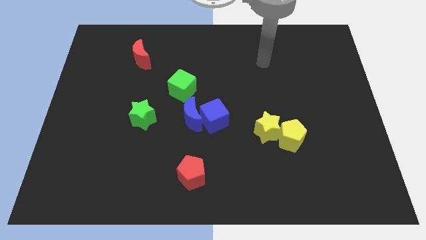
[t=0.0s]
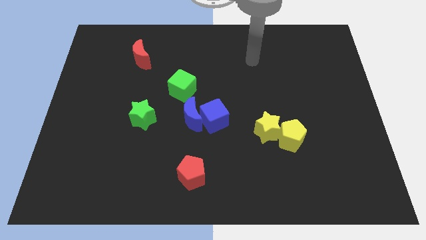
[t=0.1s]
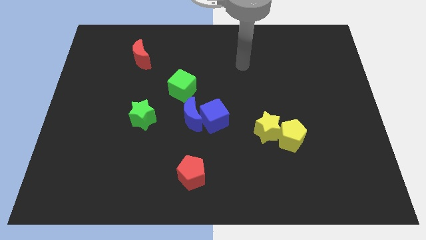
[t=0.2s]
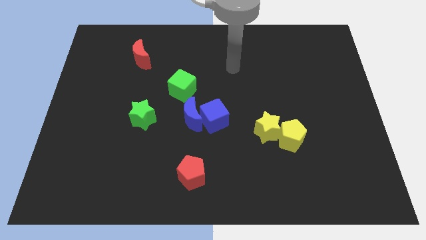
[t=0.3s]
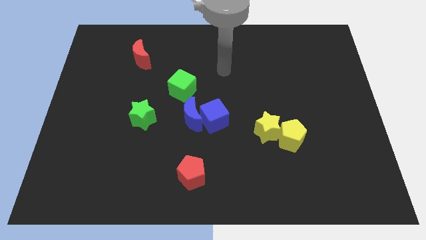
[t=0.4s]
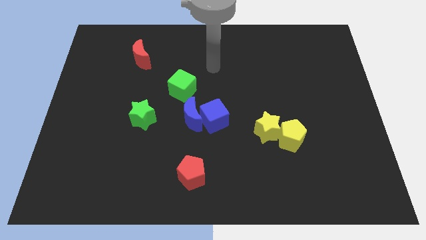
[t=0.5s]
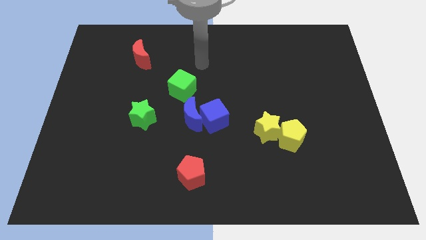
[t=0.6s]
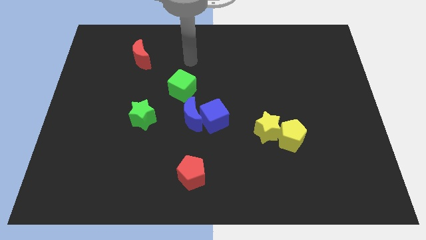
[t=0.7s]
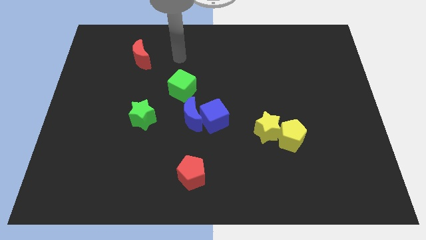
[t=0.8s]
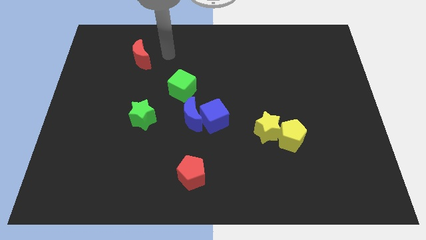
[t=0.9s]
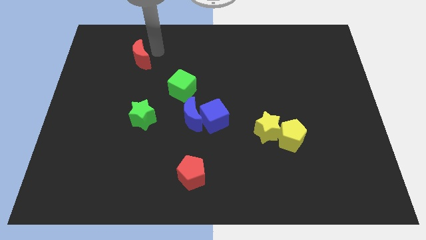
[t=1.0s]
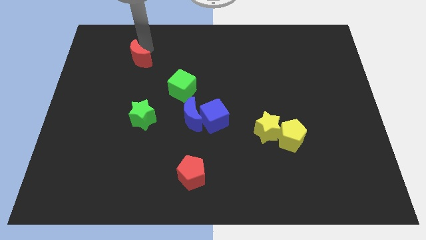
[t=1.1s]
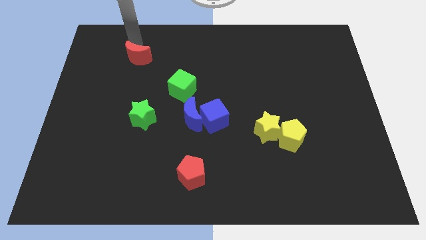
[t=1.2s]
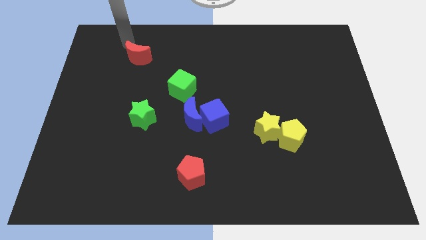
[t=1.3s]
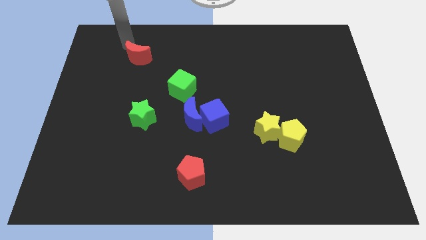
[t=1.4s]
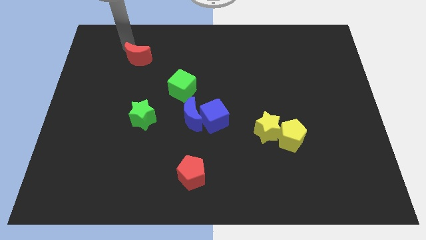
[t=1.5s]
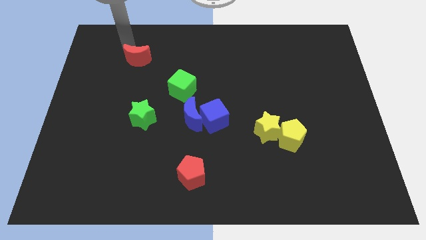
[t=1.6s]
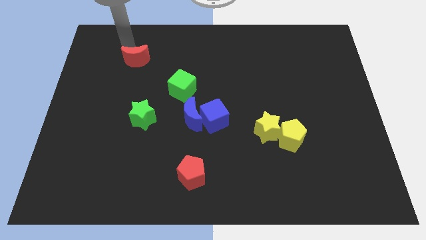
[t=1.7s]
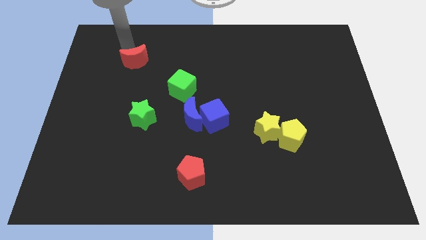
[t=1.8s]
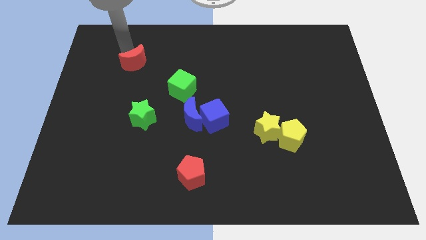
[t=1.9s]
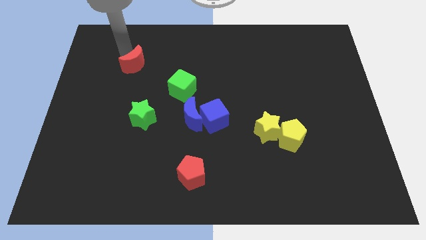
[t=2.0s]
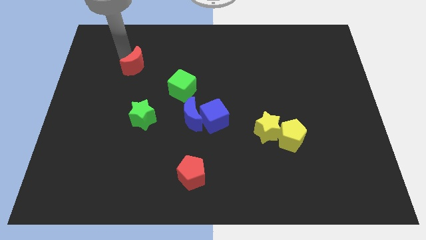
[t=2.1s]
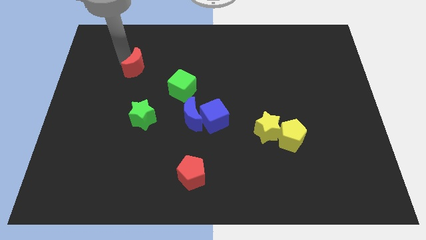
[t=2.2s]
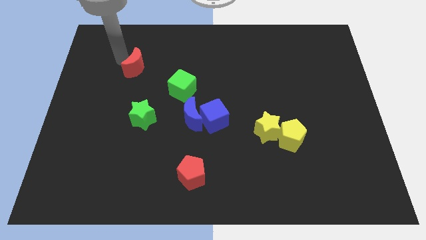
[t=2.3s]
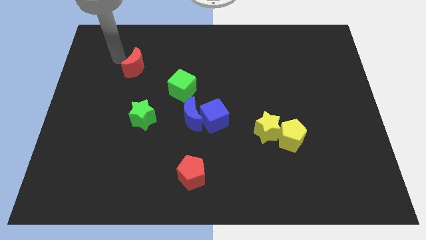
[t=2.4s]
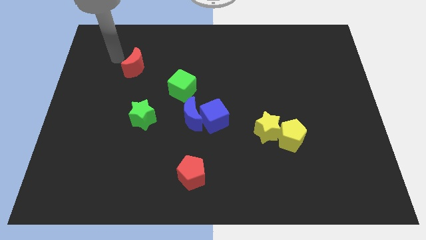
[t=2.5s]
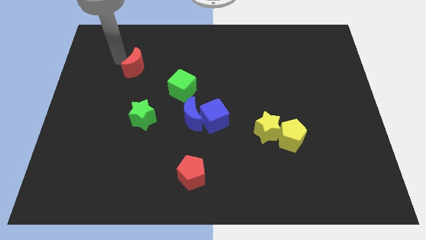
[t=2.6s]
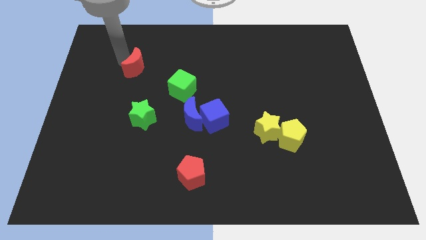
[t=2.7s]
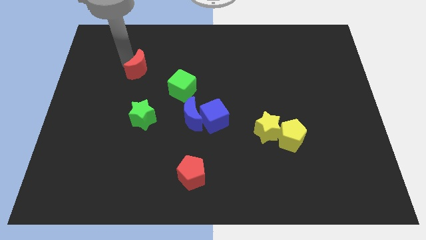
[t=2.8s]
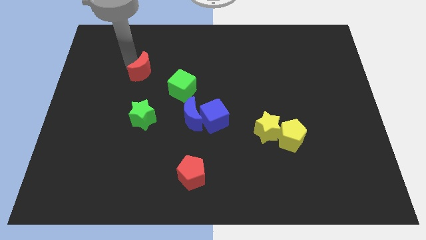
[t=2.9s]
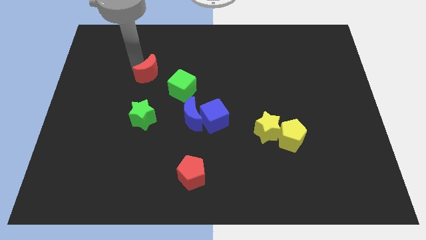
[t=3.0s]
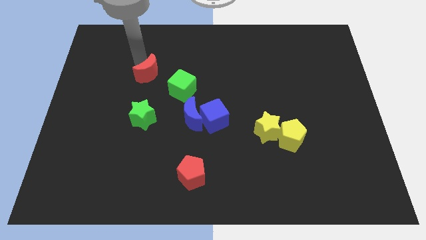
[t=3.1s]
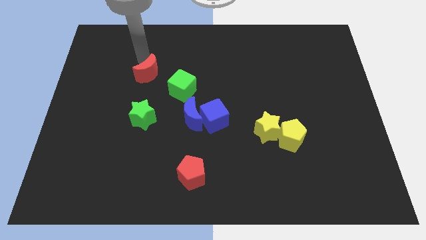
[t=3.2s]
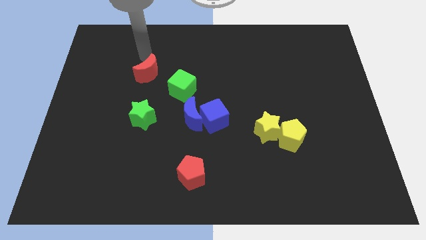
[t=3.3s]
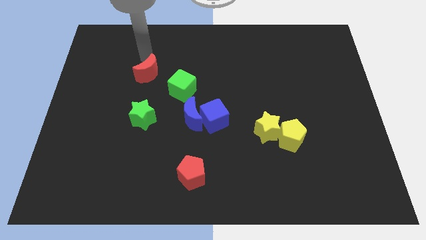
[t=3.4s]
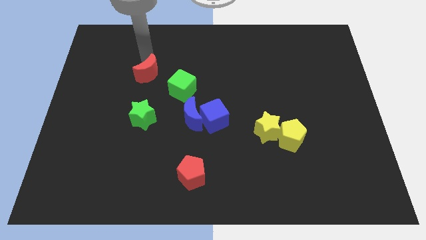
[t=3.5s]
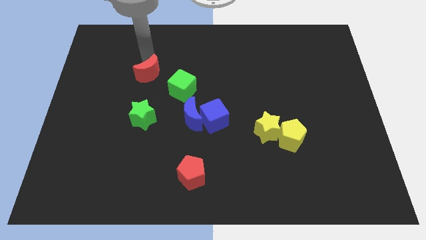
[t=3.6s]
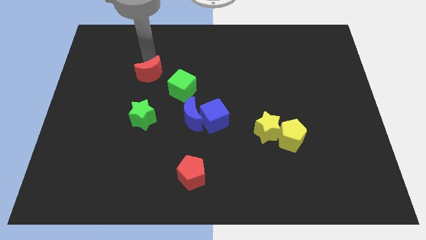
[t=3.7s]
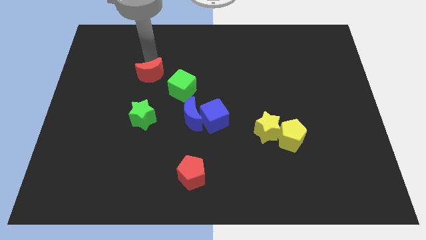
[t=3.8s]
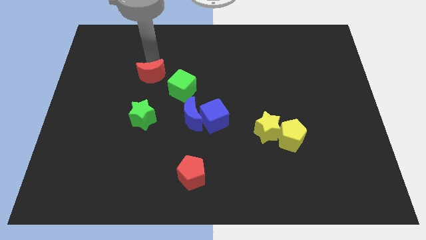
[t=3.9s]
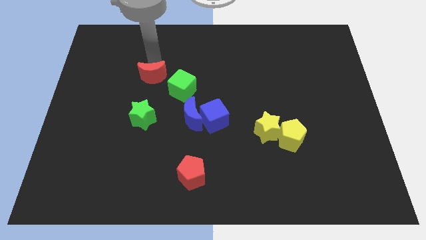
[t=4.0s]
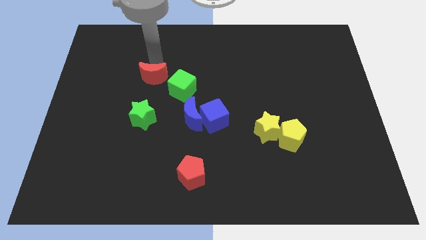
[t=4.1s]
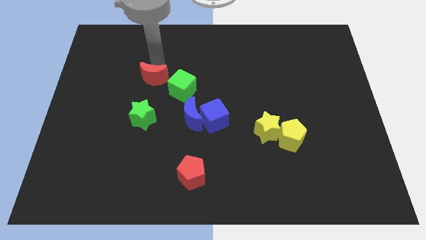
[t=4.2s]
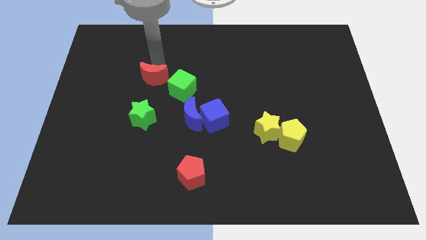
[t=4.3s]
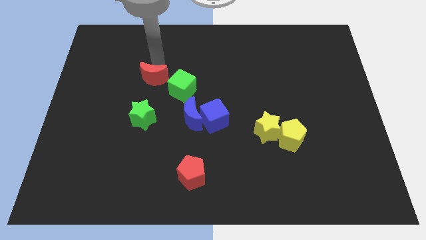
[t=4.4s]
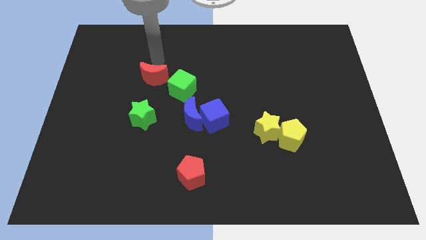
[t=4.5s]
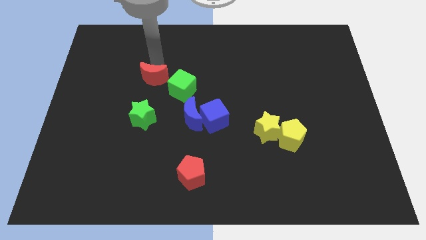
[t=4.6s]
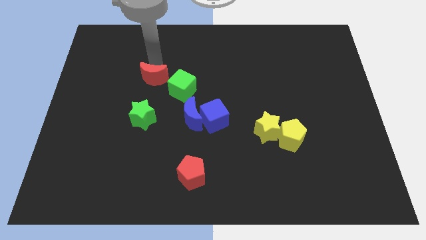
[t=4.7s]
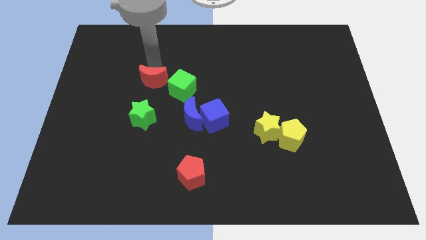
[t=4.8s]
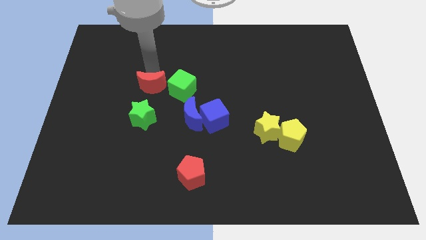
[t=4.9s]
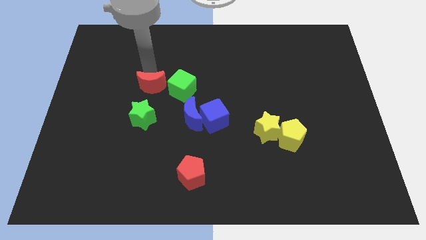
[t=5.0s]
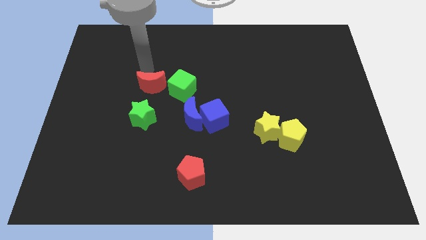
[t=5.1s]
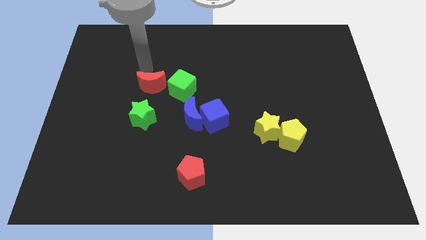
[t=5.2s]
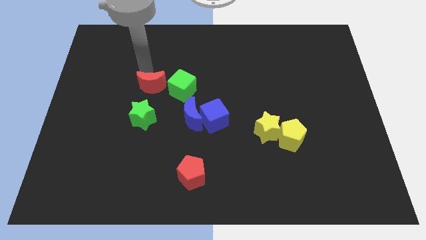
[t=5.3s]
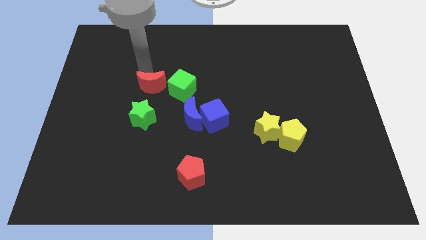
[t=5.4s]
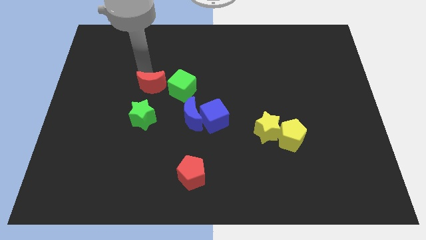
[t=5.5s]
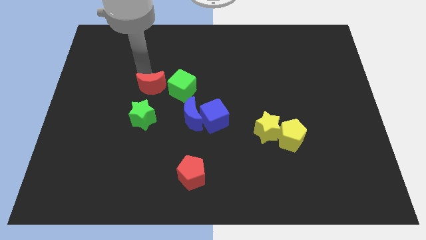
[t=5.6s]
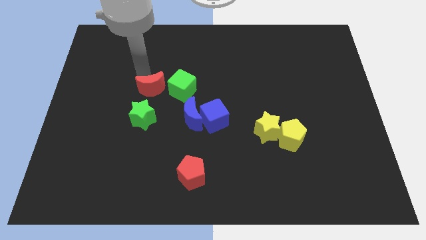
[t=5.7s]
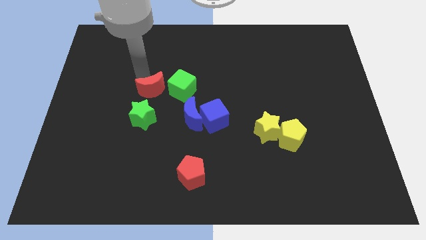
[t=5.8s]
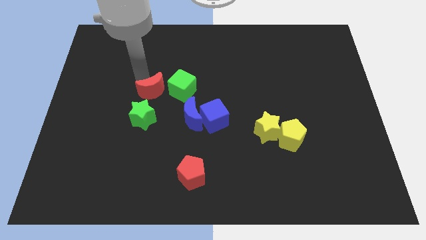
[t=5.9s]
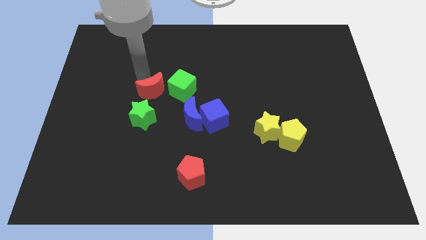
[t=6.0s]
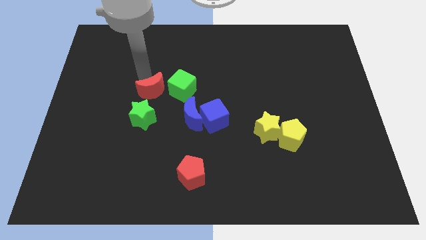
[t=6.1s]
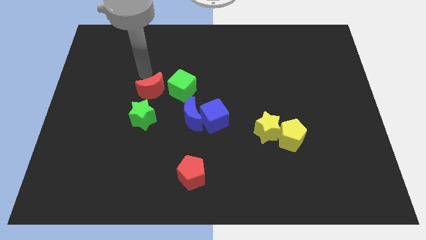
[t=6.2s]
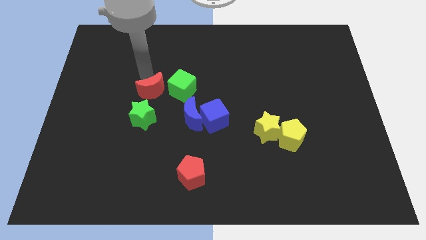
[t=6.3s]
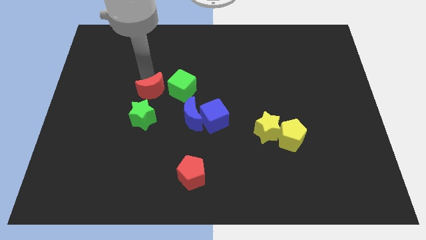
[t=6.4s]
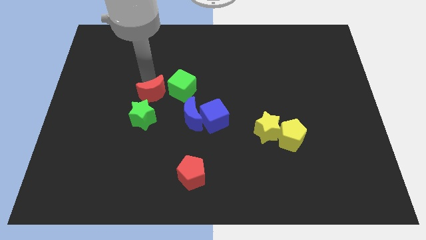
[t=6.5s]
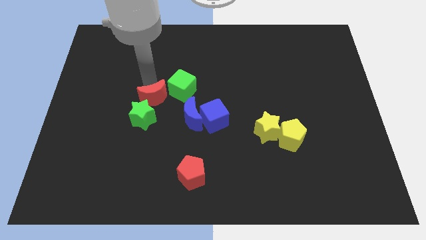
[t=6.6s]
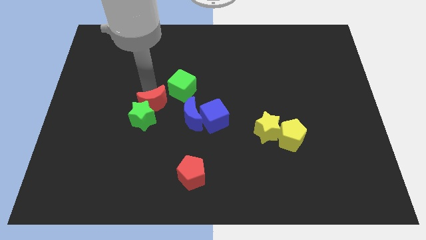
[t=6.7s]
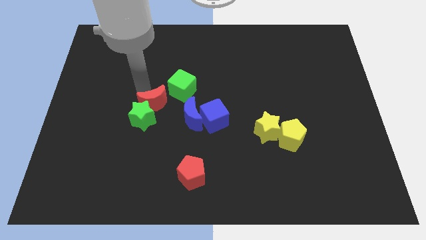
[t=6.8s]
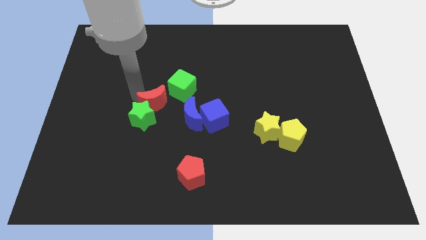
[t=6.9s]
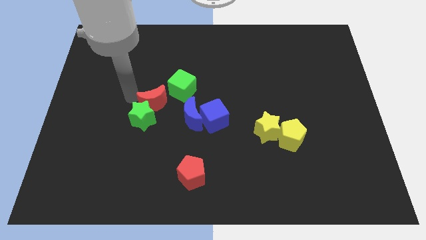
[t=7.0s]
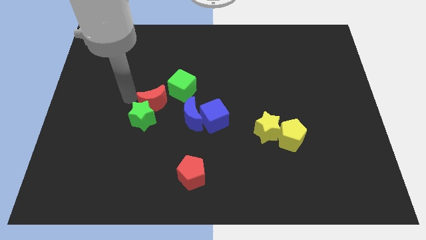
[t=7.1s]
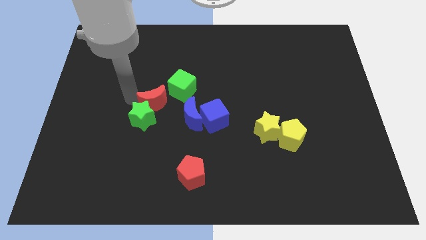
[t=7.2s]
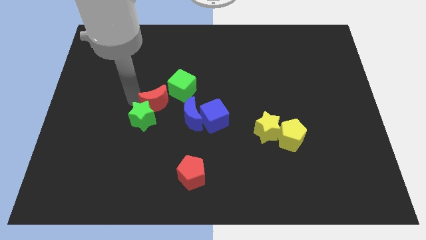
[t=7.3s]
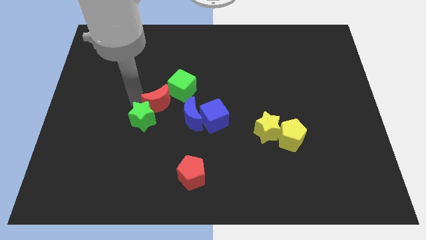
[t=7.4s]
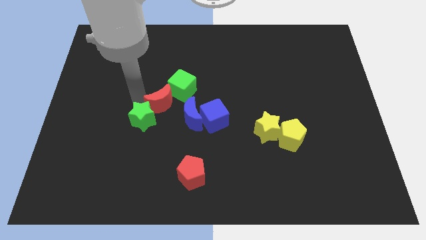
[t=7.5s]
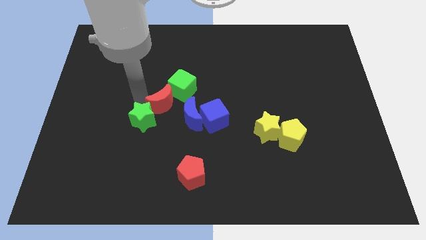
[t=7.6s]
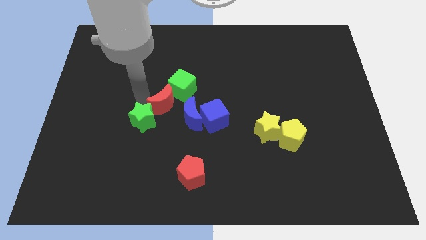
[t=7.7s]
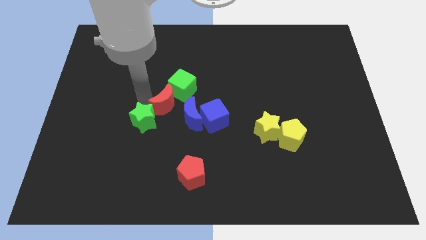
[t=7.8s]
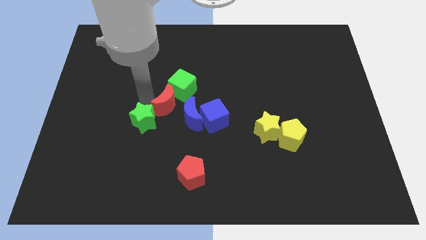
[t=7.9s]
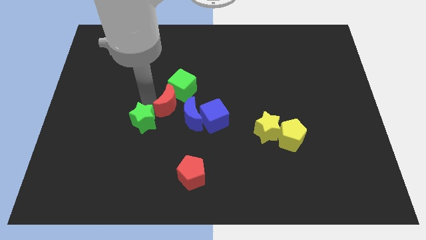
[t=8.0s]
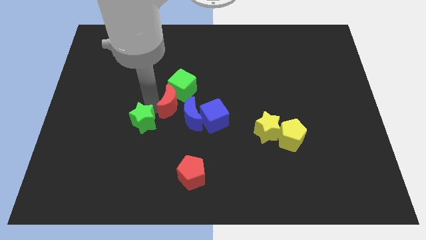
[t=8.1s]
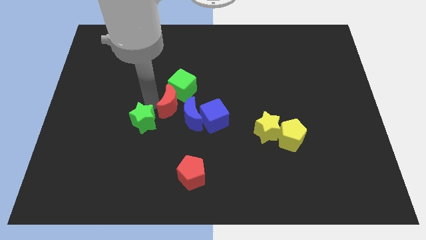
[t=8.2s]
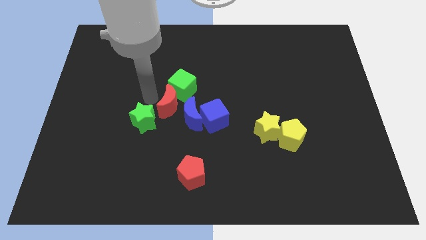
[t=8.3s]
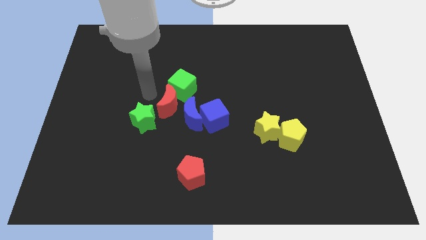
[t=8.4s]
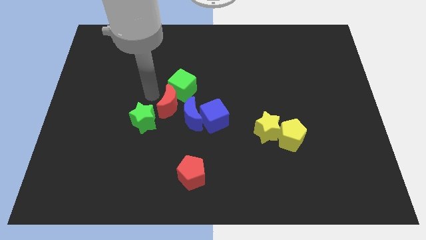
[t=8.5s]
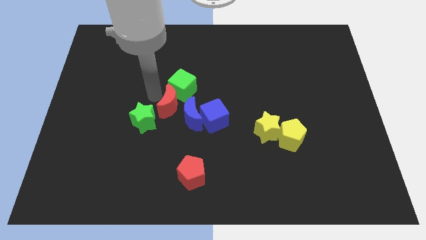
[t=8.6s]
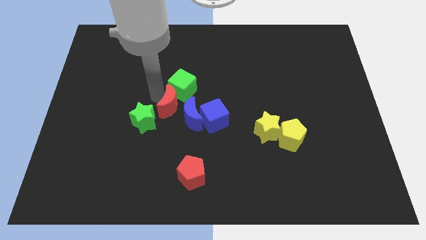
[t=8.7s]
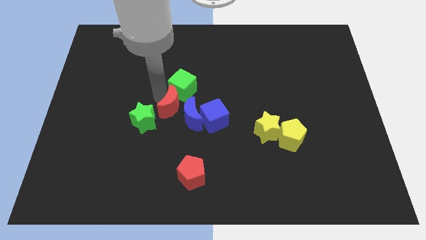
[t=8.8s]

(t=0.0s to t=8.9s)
move the red moon close to the blue moon
